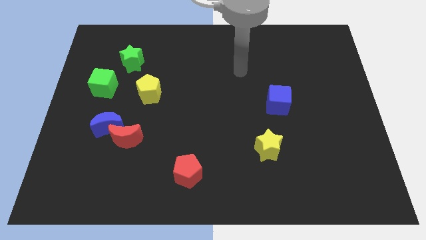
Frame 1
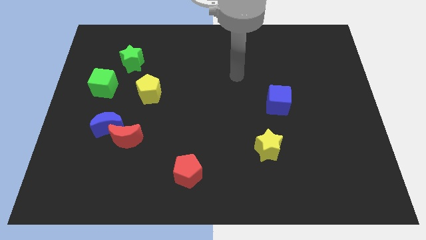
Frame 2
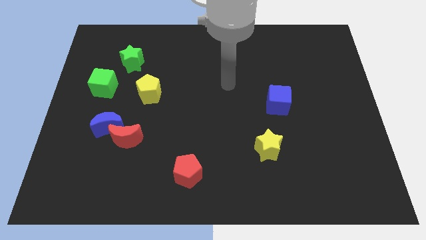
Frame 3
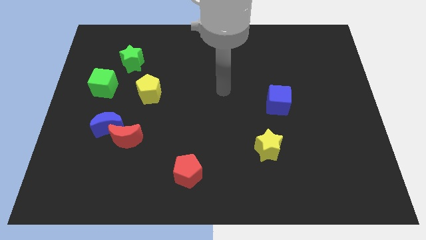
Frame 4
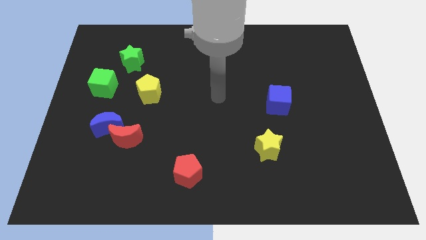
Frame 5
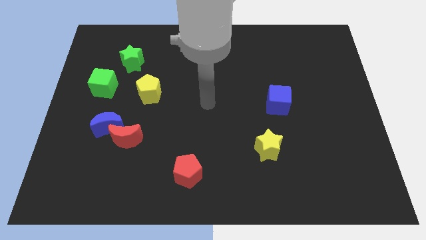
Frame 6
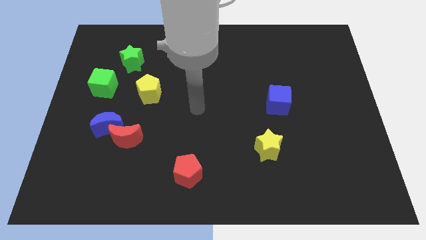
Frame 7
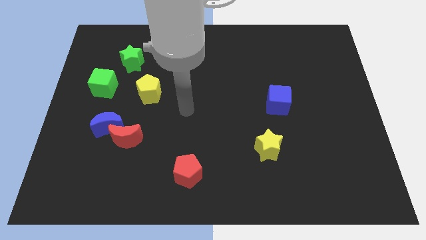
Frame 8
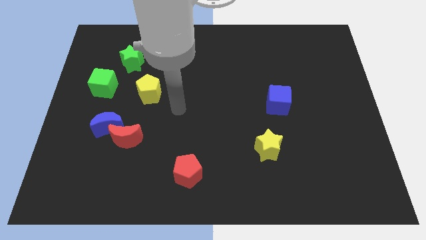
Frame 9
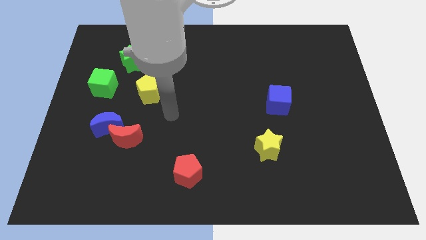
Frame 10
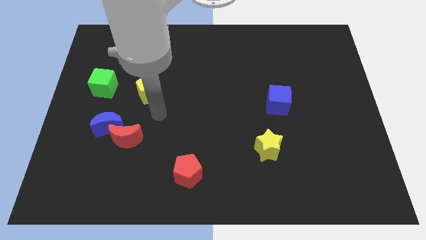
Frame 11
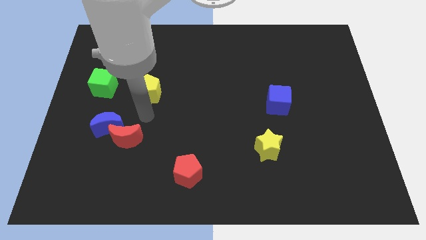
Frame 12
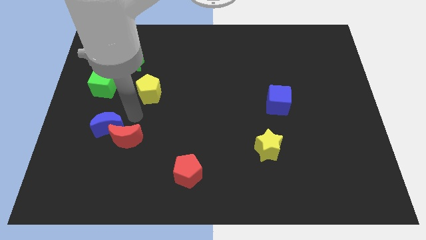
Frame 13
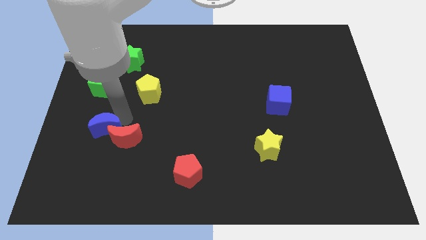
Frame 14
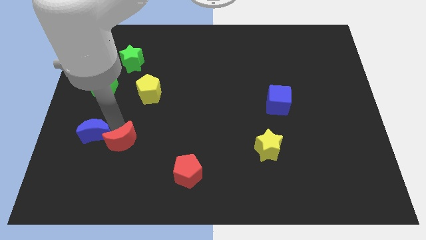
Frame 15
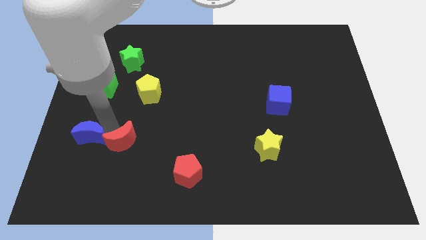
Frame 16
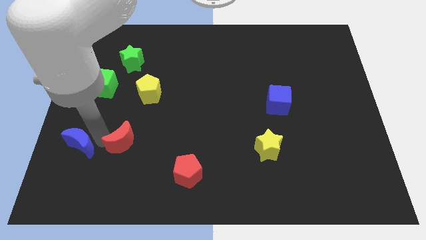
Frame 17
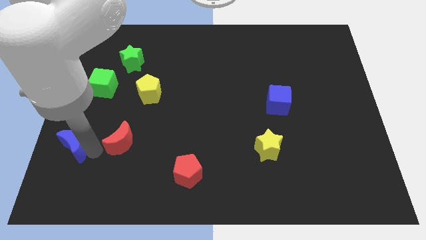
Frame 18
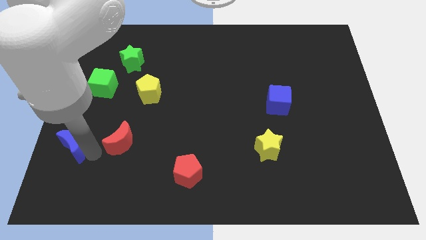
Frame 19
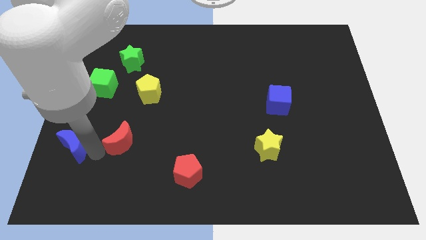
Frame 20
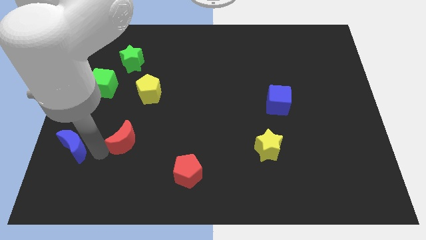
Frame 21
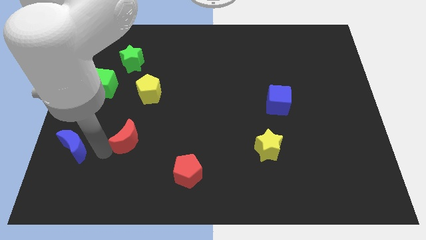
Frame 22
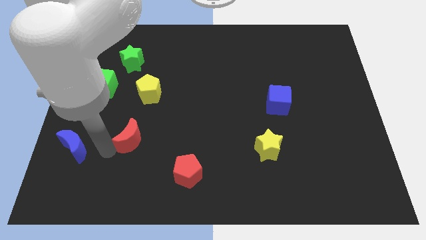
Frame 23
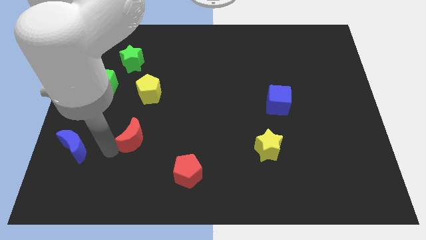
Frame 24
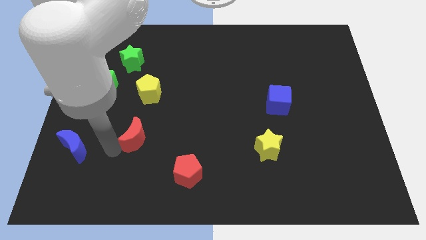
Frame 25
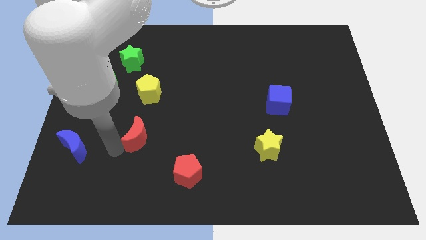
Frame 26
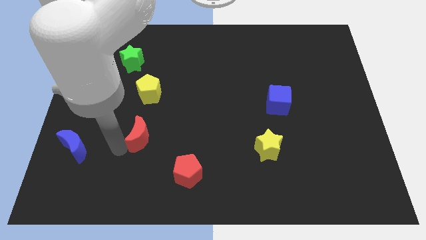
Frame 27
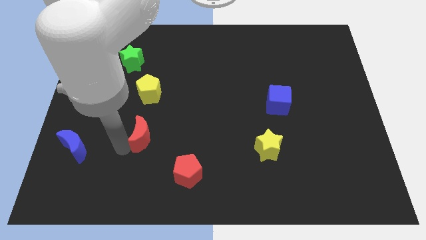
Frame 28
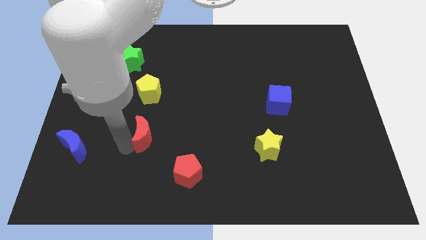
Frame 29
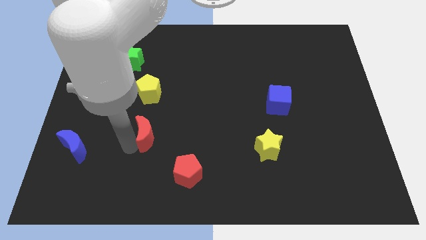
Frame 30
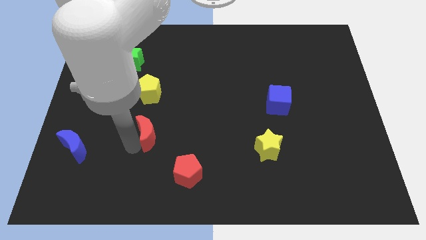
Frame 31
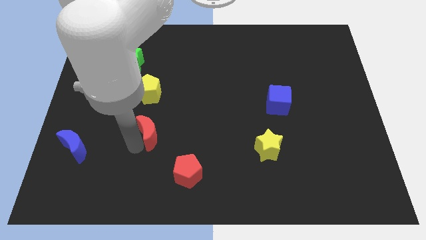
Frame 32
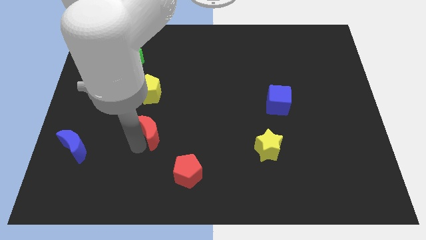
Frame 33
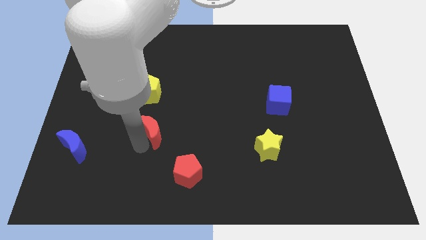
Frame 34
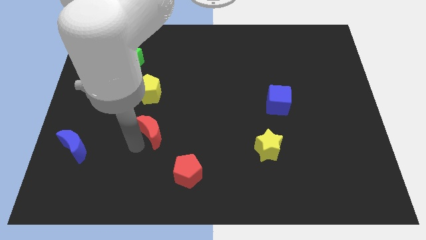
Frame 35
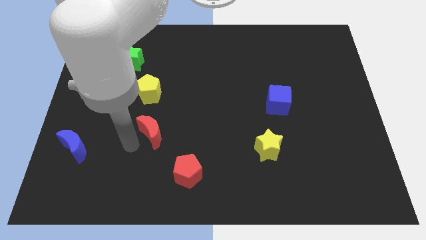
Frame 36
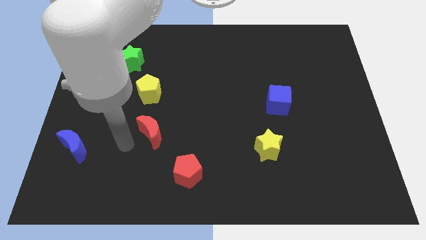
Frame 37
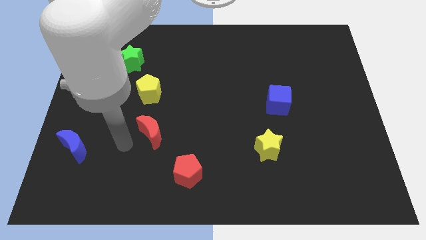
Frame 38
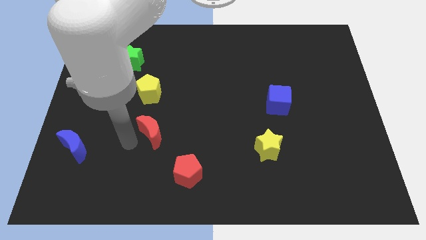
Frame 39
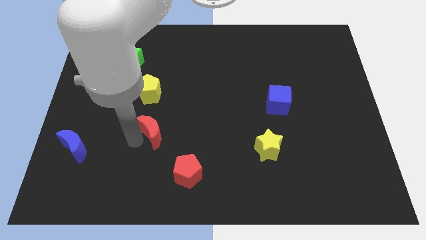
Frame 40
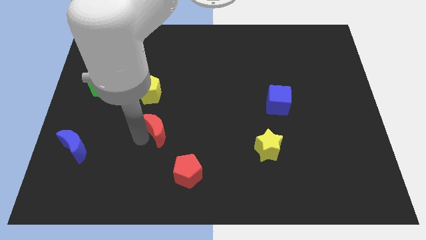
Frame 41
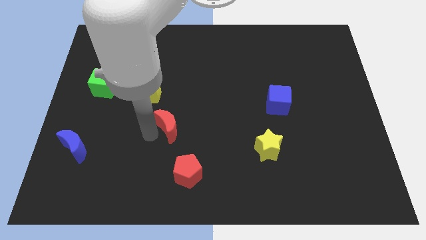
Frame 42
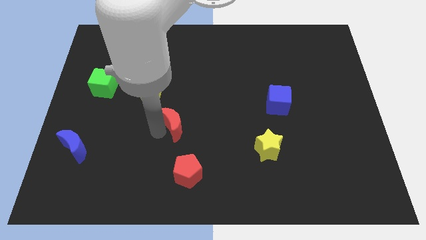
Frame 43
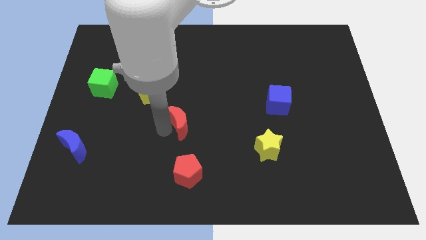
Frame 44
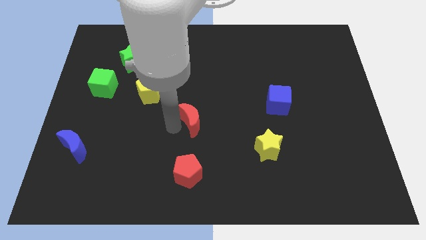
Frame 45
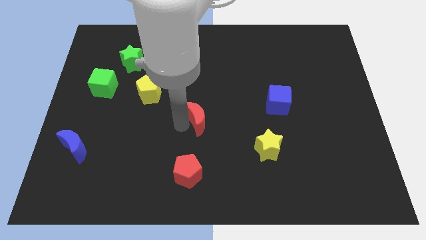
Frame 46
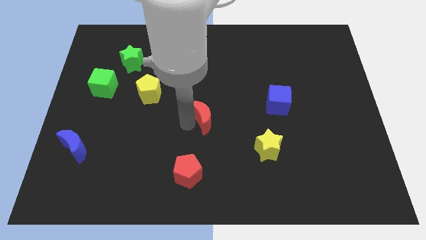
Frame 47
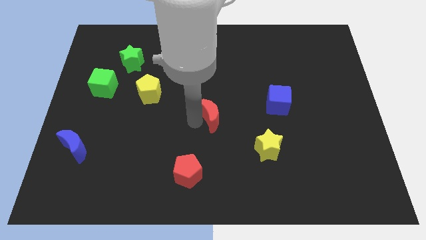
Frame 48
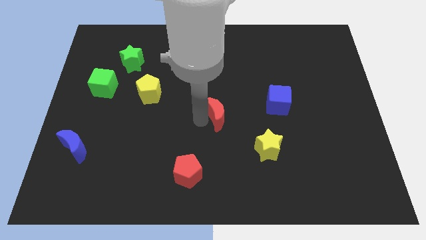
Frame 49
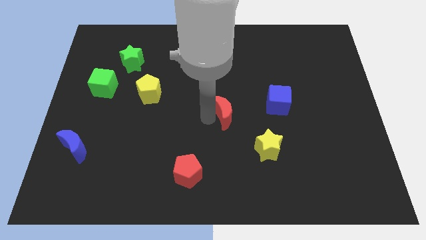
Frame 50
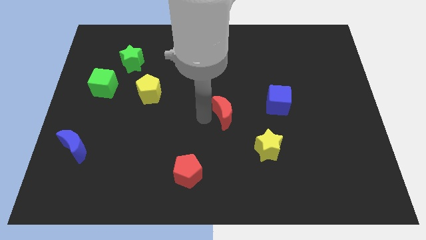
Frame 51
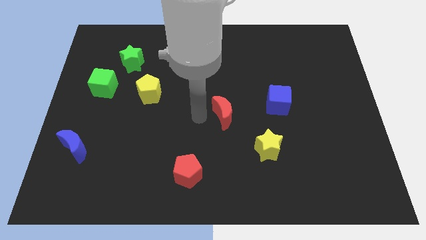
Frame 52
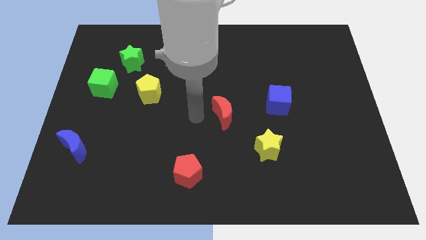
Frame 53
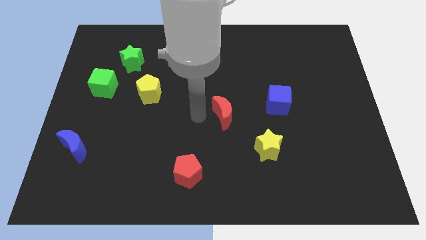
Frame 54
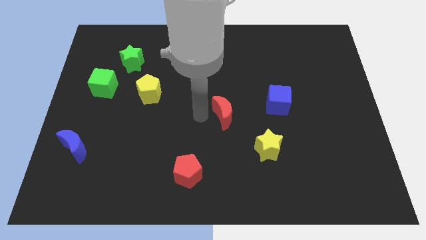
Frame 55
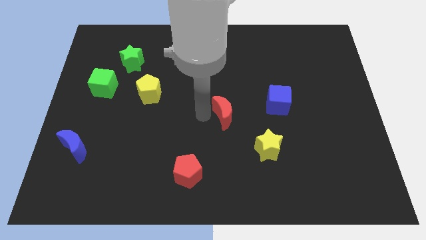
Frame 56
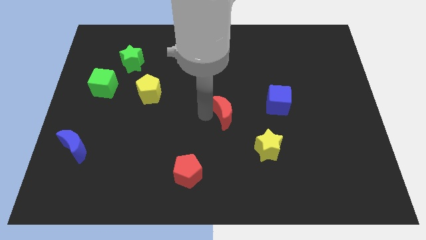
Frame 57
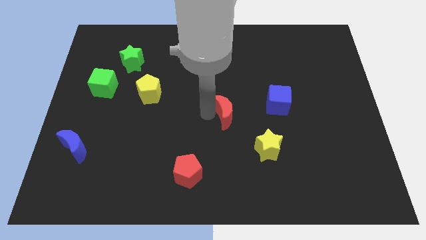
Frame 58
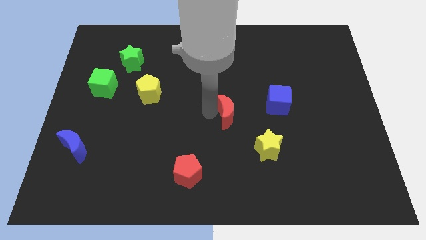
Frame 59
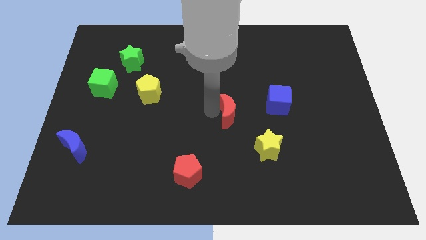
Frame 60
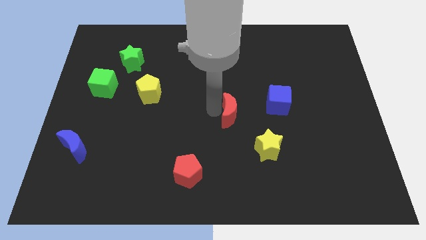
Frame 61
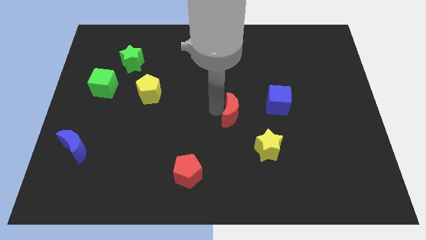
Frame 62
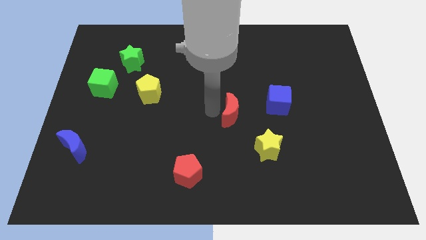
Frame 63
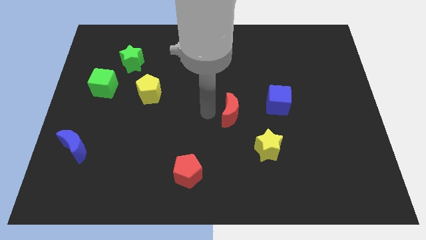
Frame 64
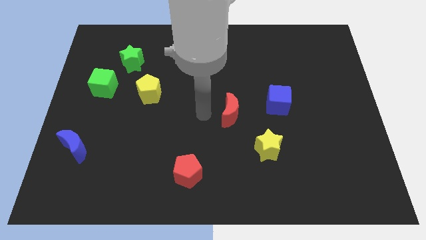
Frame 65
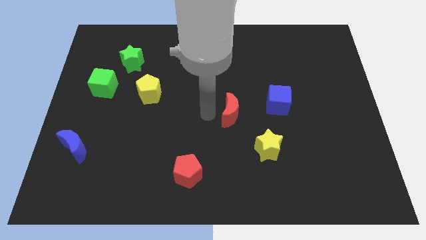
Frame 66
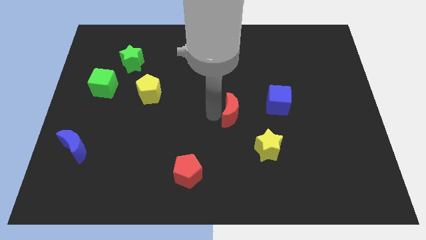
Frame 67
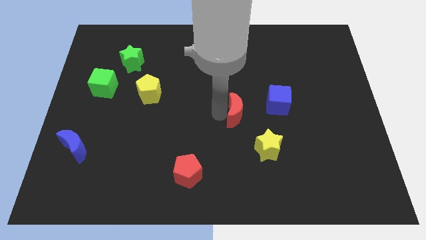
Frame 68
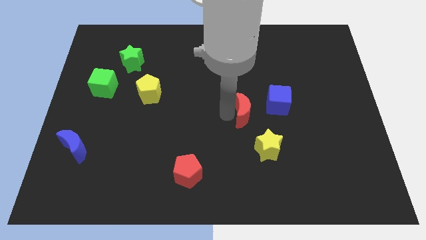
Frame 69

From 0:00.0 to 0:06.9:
slide the red moon to the top side of the yellow star
